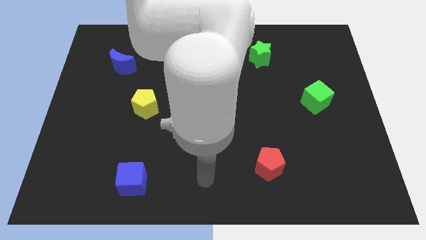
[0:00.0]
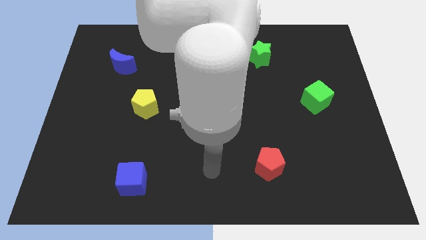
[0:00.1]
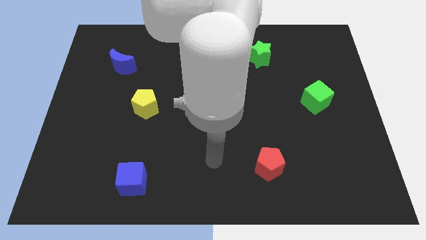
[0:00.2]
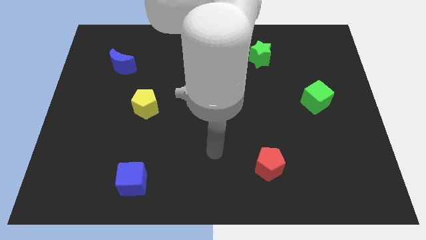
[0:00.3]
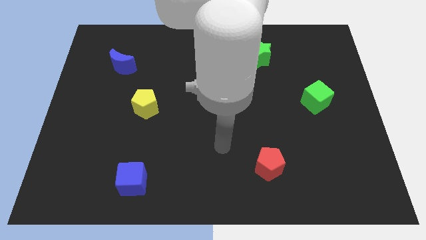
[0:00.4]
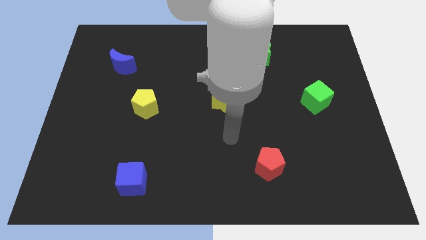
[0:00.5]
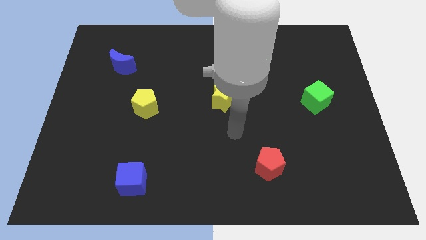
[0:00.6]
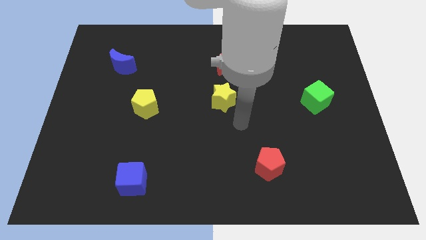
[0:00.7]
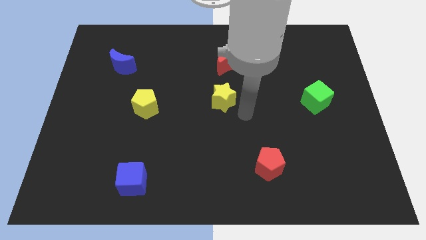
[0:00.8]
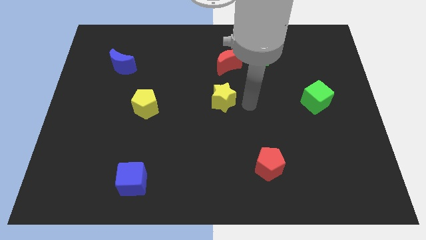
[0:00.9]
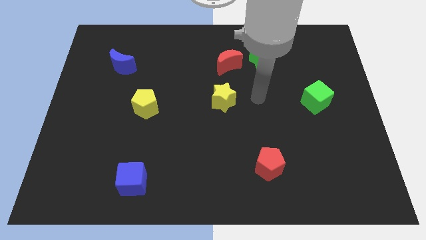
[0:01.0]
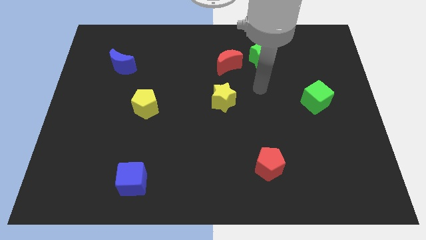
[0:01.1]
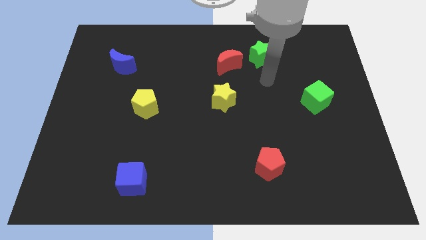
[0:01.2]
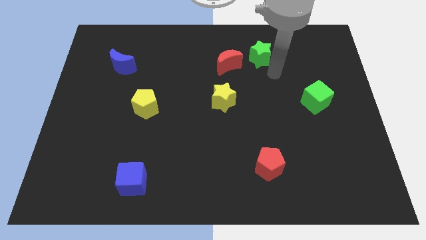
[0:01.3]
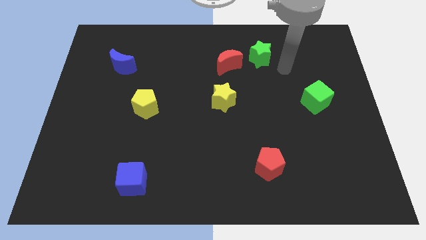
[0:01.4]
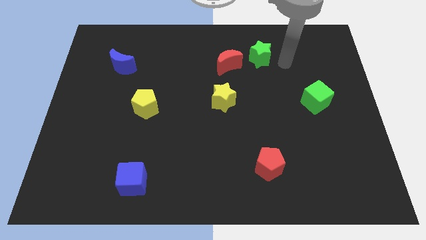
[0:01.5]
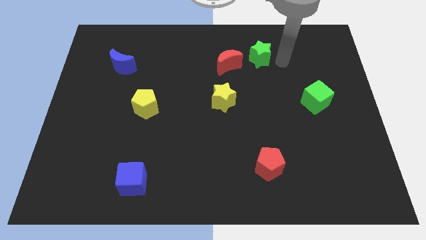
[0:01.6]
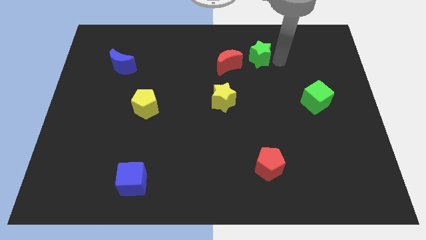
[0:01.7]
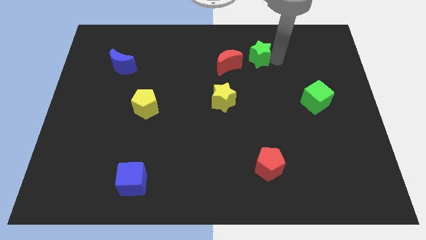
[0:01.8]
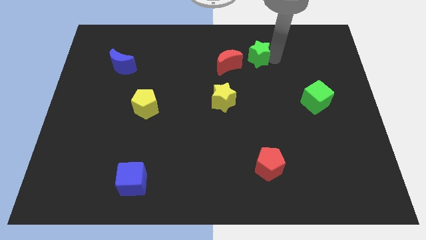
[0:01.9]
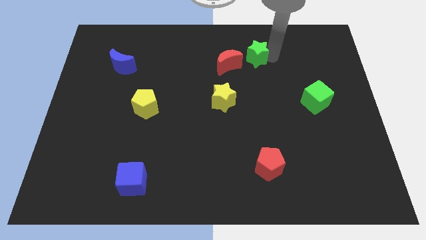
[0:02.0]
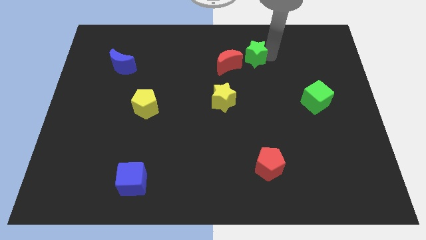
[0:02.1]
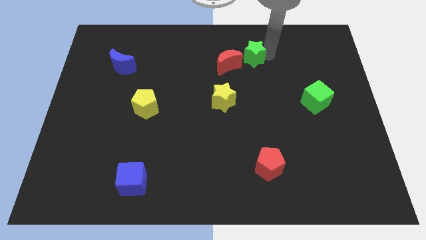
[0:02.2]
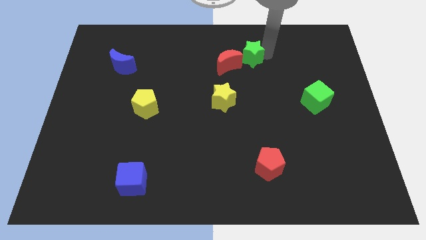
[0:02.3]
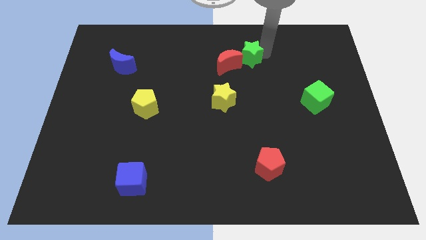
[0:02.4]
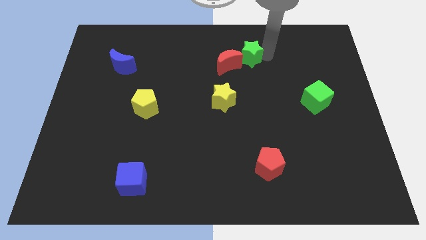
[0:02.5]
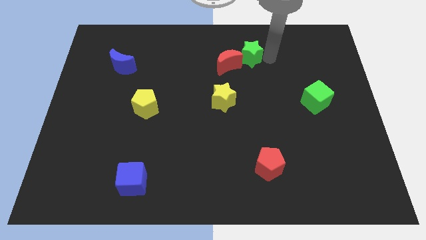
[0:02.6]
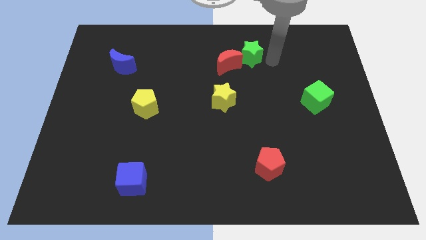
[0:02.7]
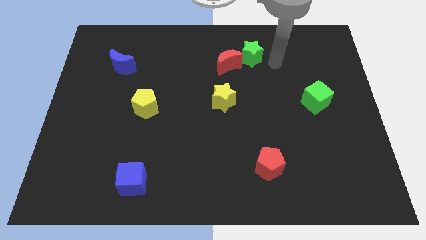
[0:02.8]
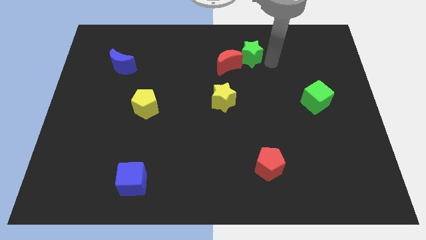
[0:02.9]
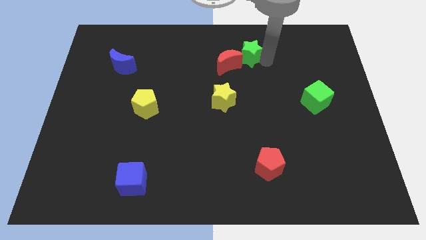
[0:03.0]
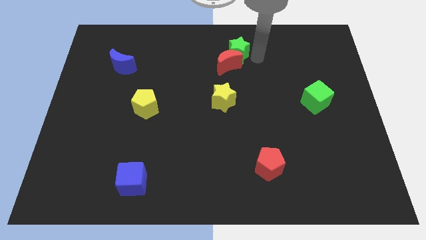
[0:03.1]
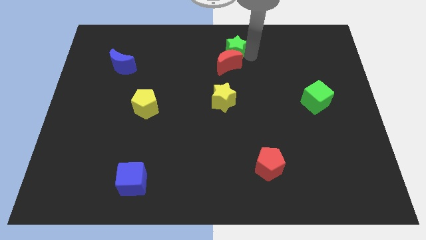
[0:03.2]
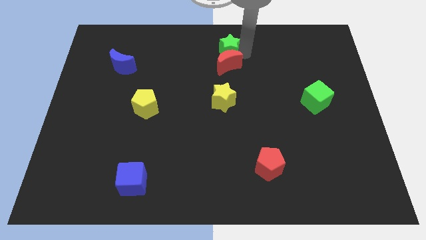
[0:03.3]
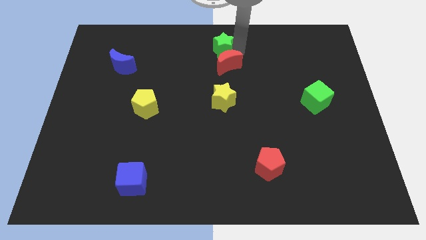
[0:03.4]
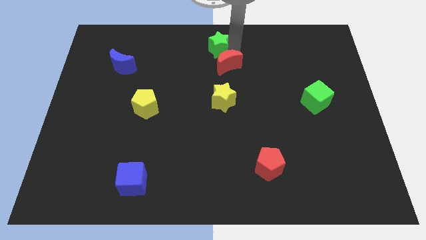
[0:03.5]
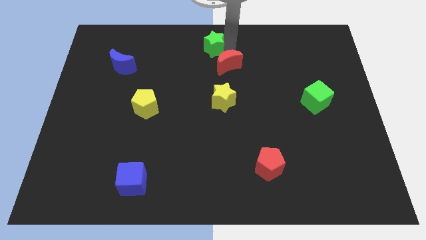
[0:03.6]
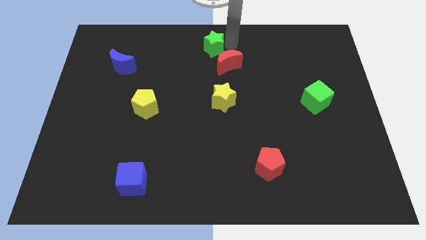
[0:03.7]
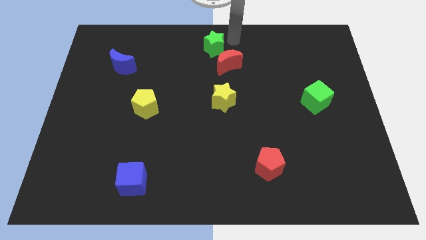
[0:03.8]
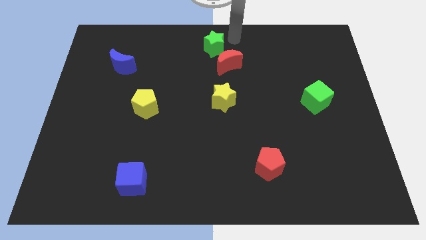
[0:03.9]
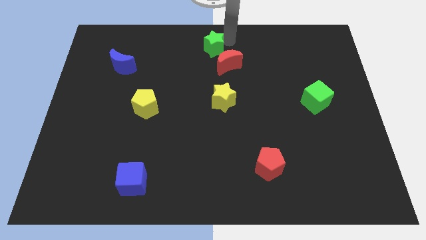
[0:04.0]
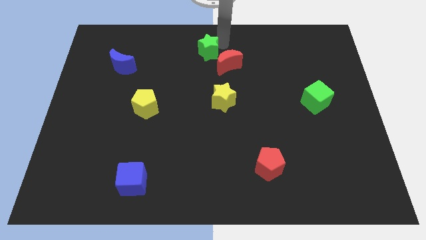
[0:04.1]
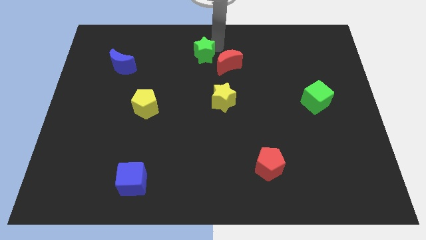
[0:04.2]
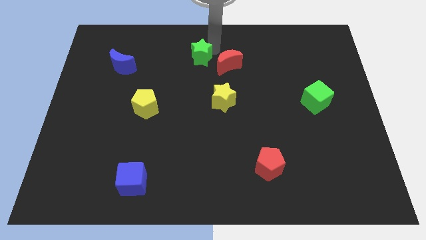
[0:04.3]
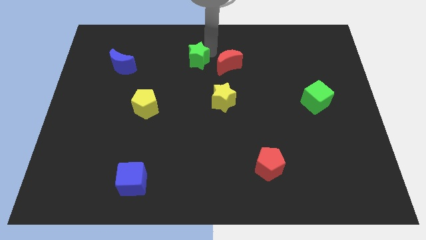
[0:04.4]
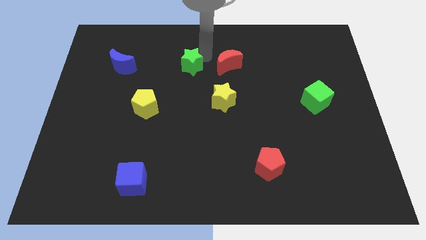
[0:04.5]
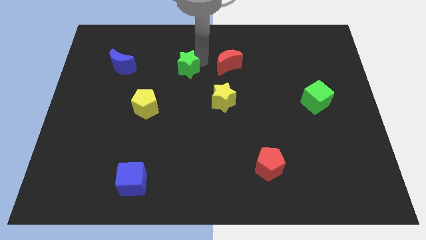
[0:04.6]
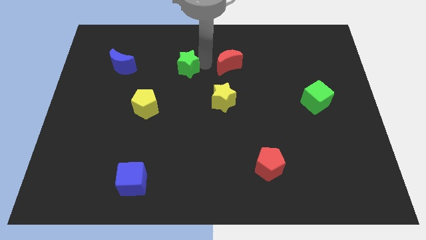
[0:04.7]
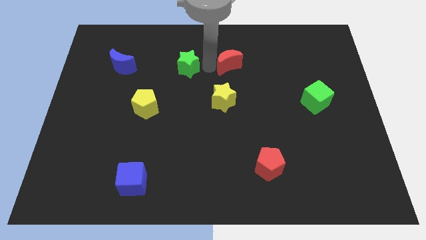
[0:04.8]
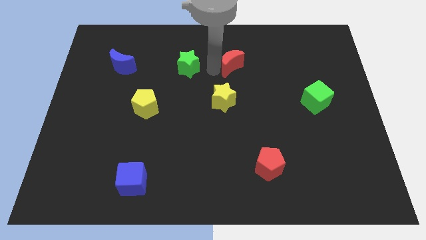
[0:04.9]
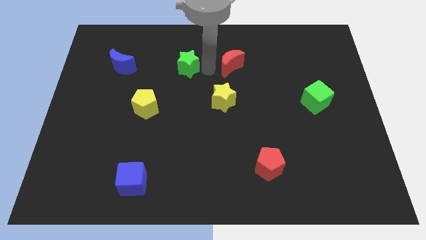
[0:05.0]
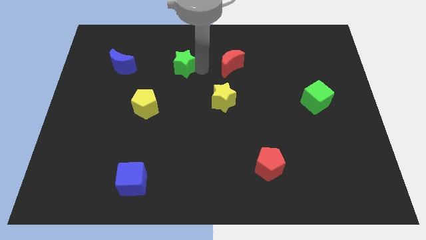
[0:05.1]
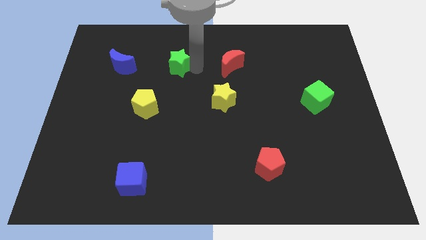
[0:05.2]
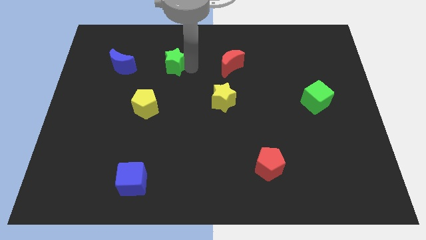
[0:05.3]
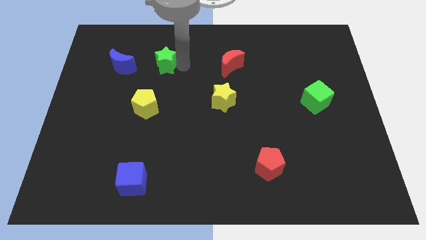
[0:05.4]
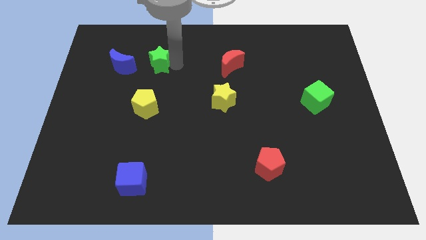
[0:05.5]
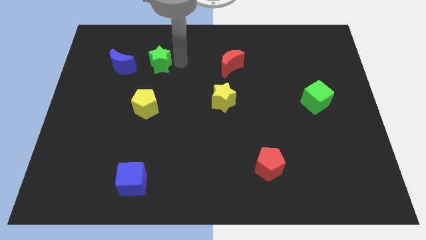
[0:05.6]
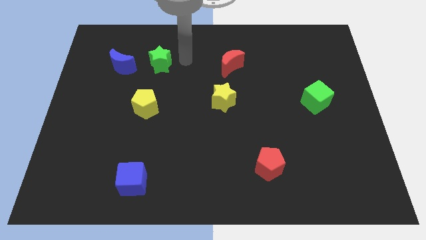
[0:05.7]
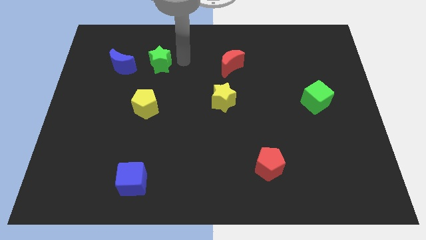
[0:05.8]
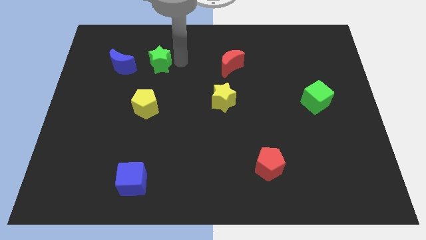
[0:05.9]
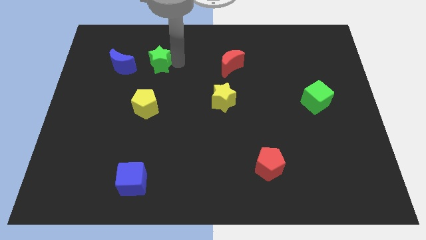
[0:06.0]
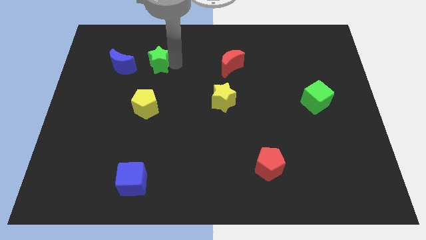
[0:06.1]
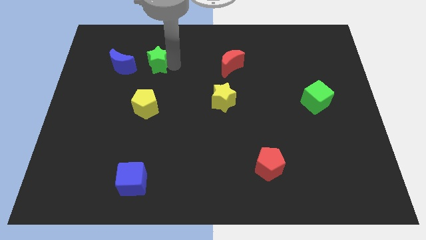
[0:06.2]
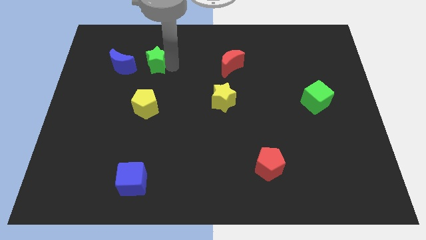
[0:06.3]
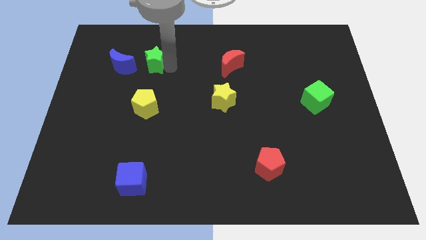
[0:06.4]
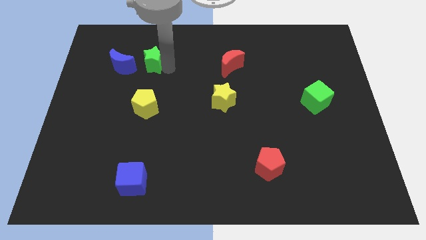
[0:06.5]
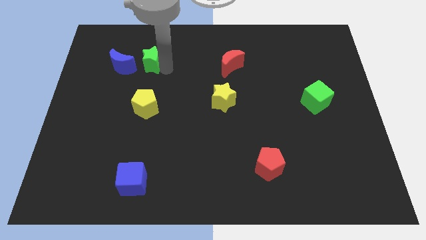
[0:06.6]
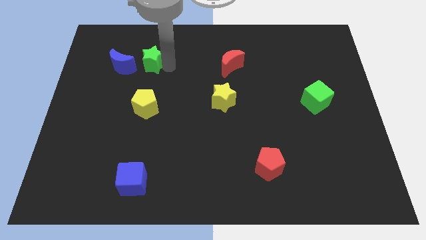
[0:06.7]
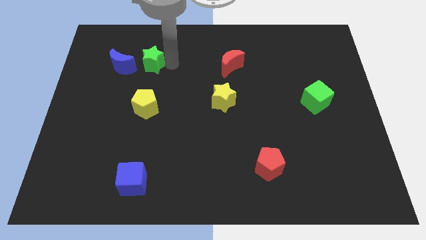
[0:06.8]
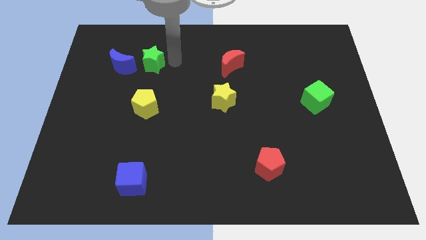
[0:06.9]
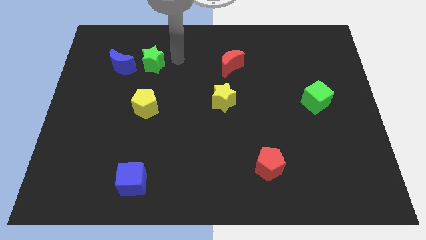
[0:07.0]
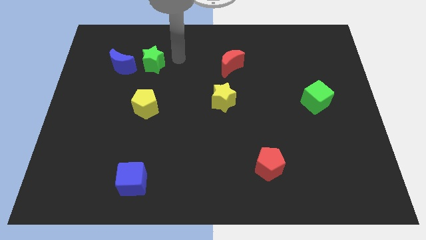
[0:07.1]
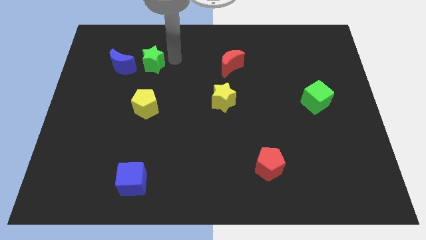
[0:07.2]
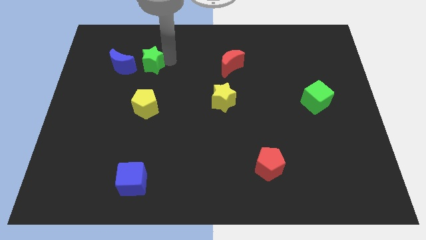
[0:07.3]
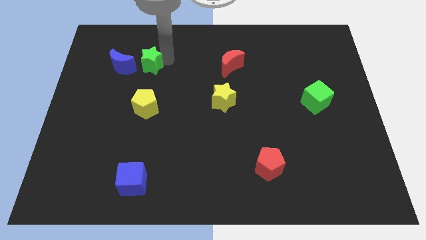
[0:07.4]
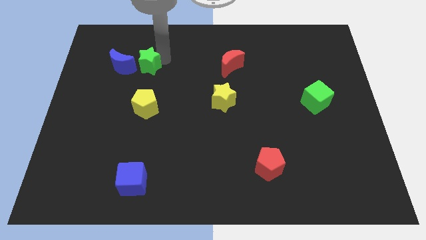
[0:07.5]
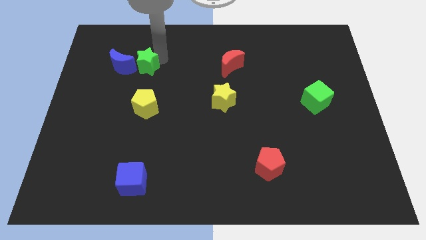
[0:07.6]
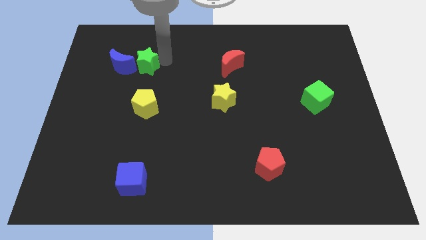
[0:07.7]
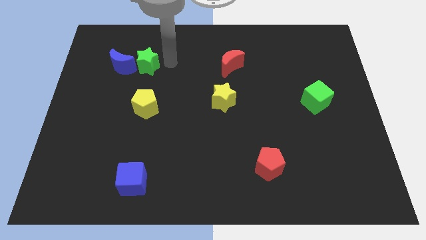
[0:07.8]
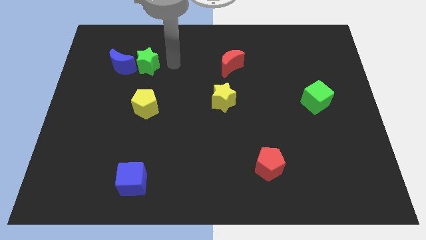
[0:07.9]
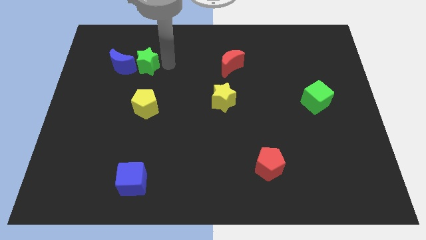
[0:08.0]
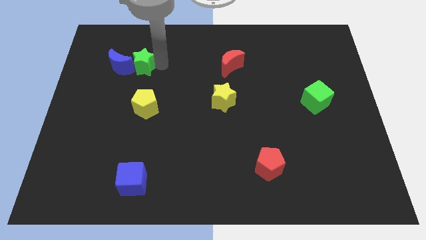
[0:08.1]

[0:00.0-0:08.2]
push the green star next to the blue moon
